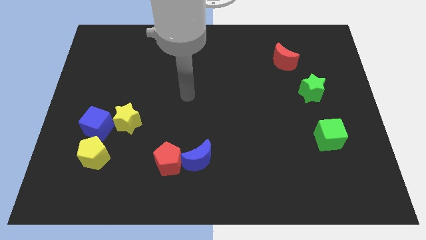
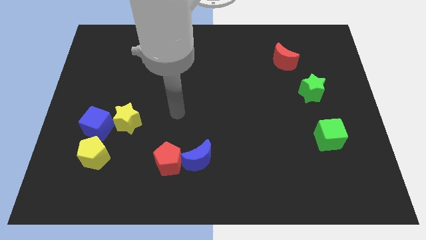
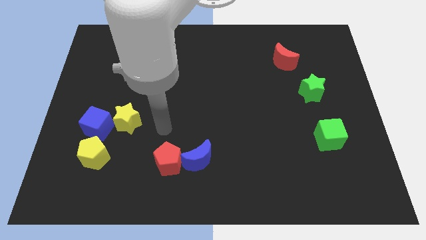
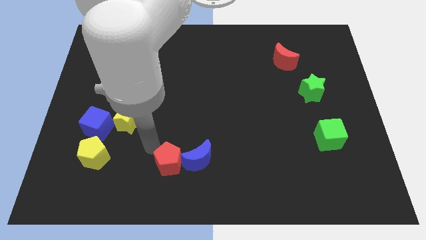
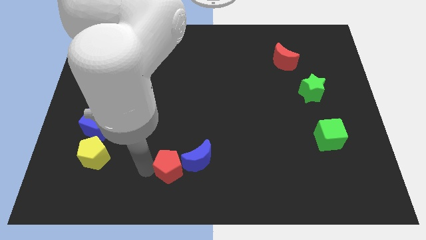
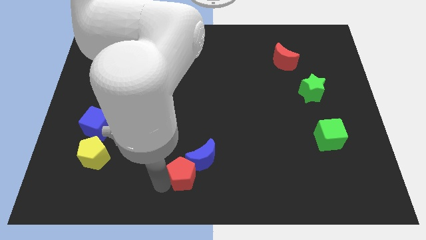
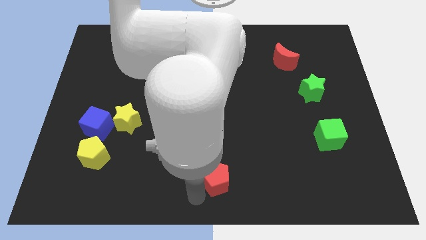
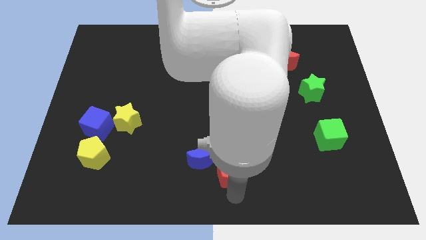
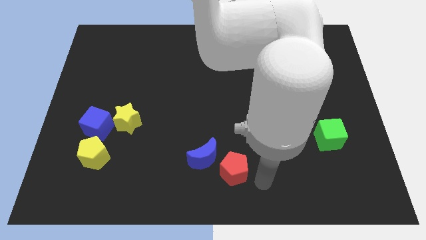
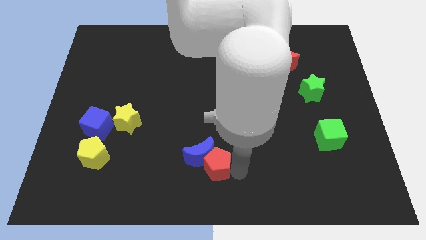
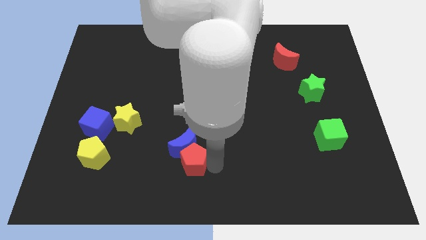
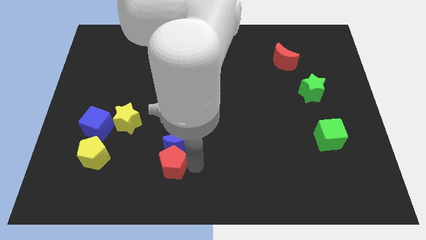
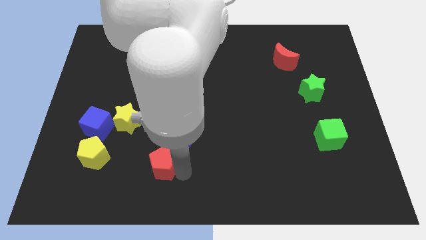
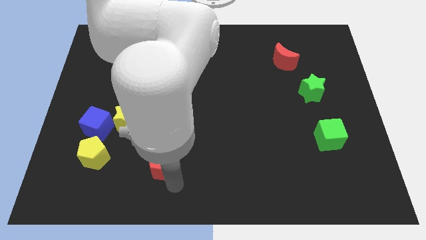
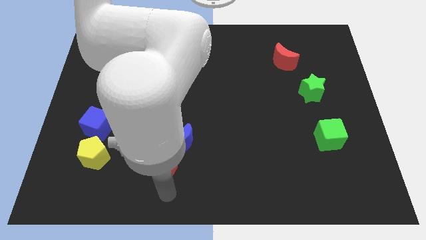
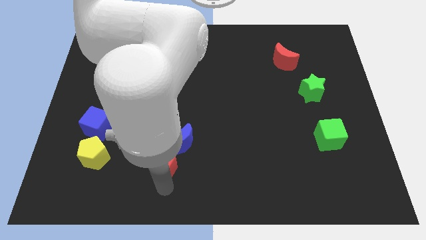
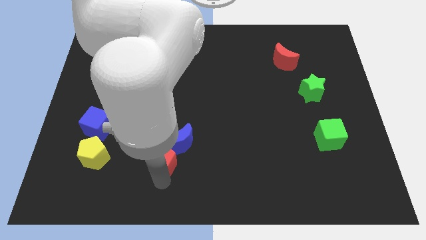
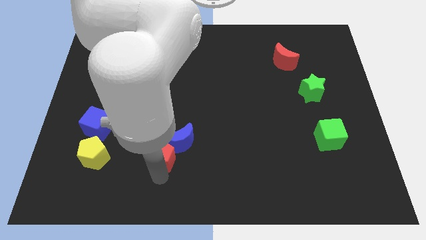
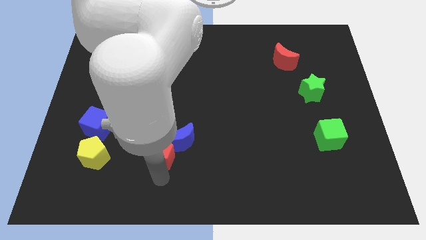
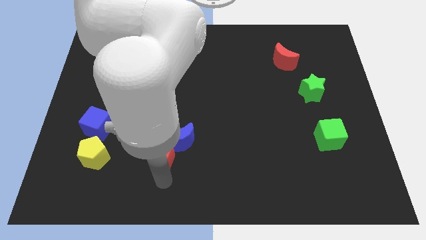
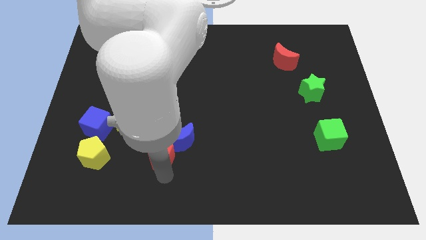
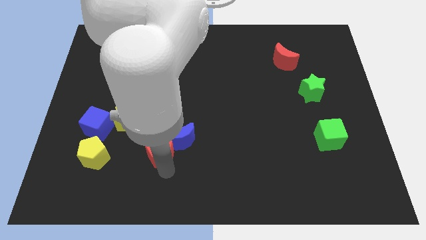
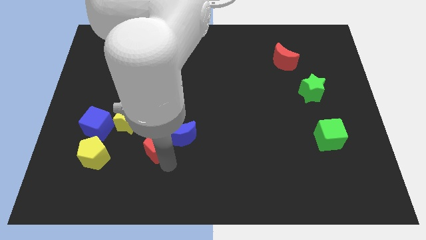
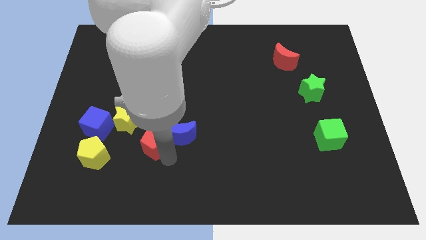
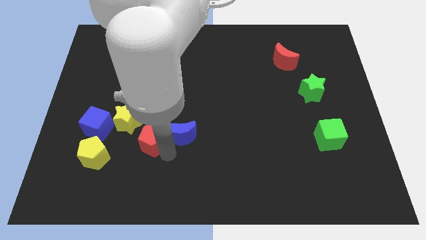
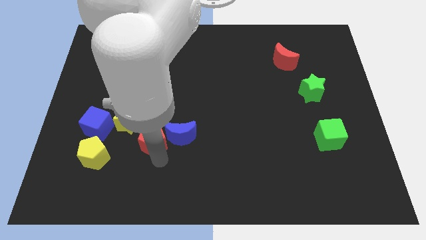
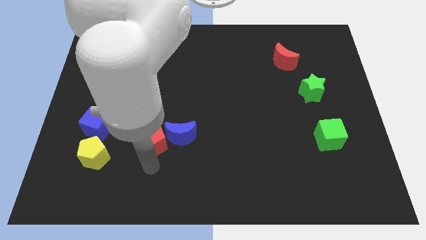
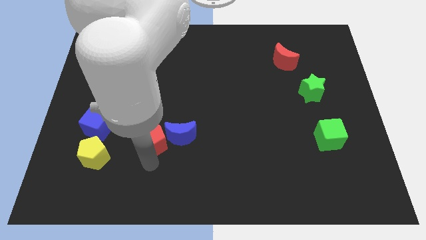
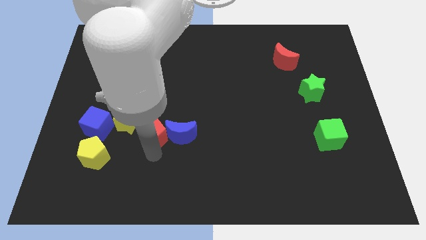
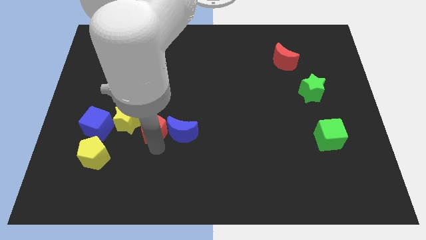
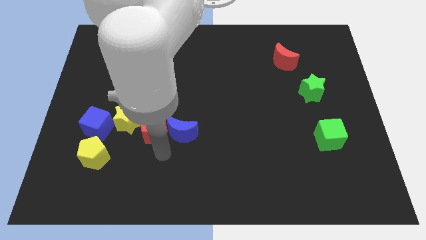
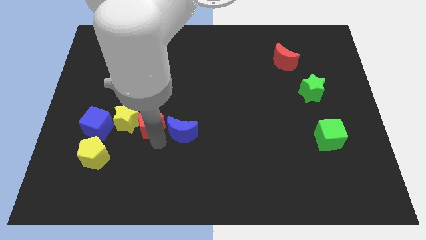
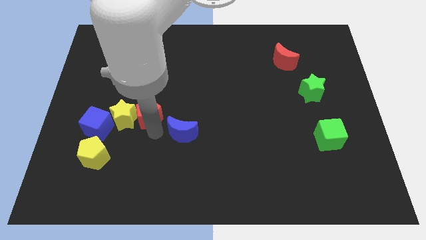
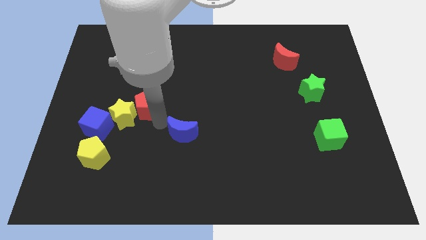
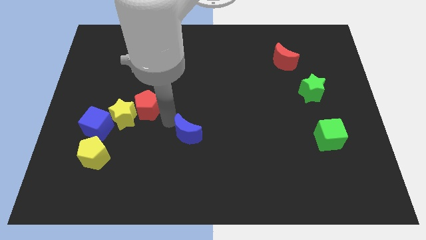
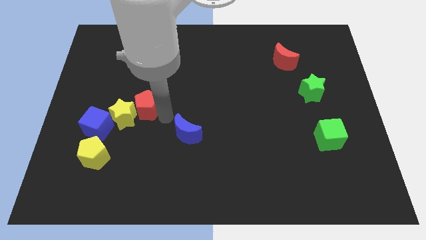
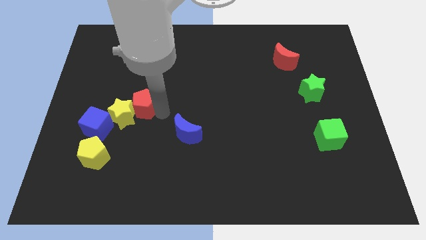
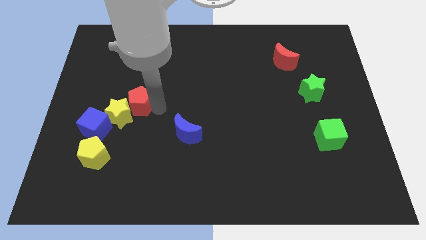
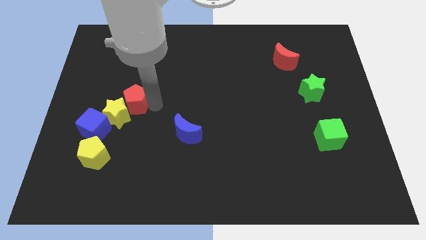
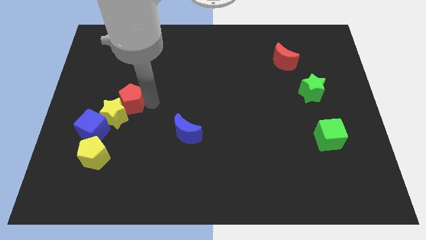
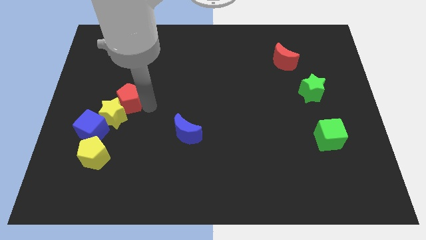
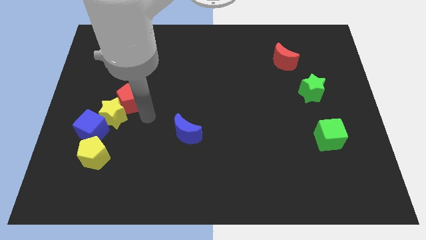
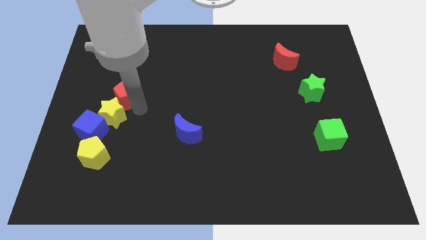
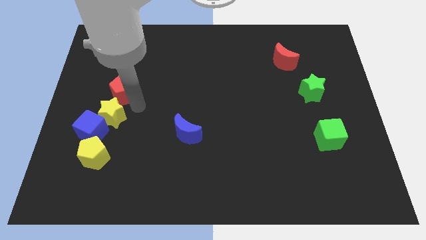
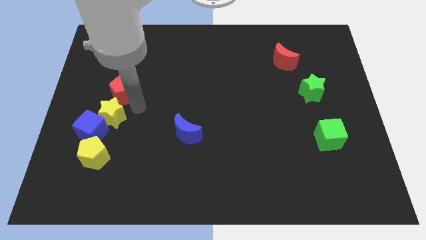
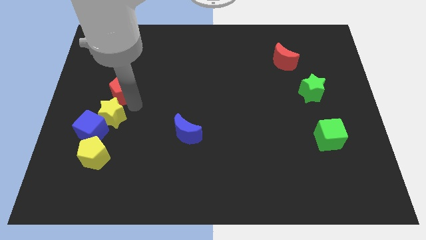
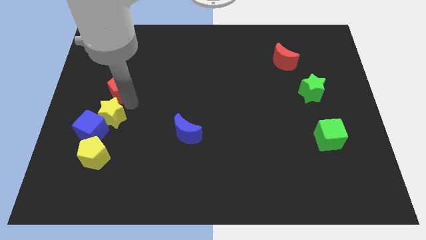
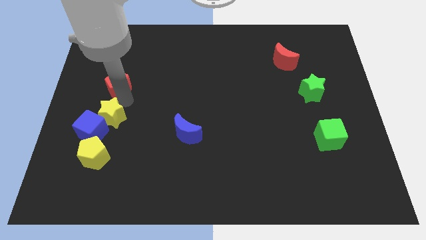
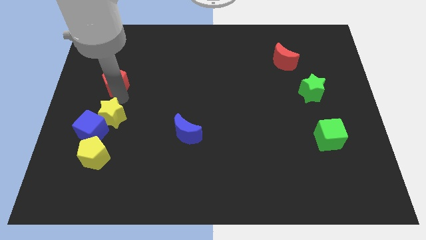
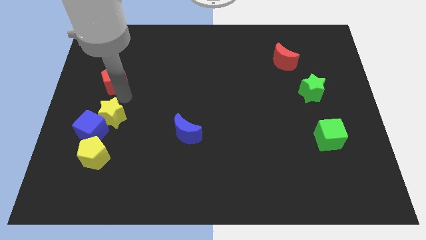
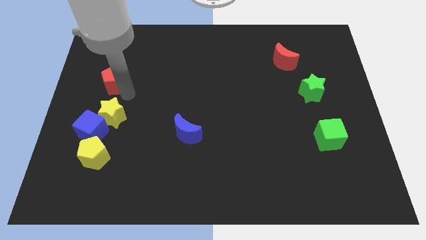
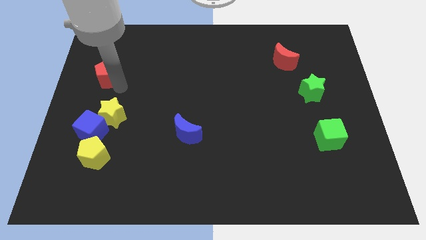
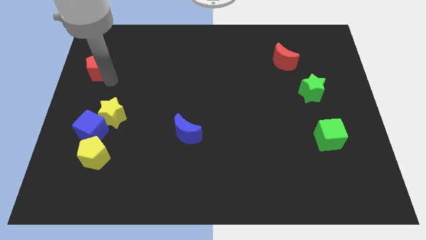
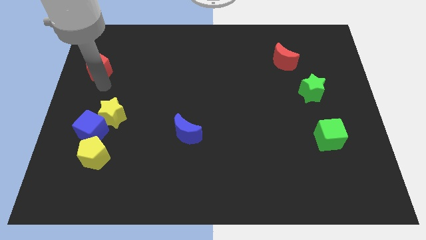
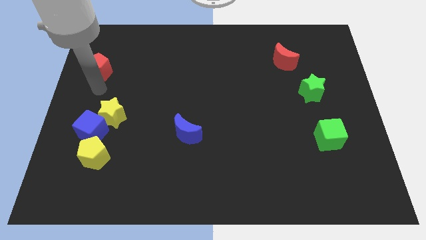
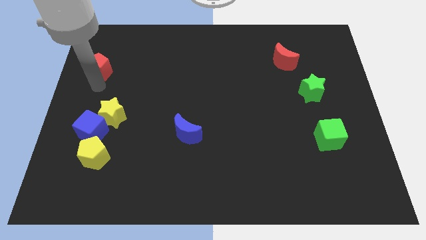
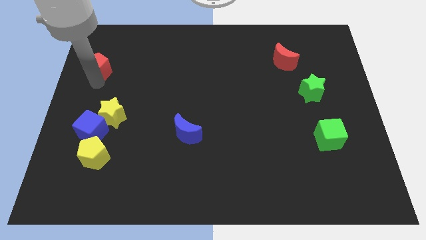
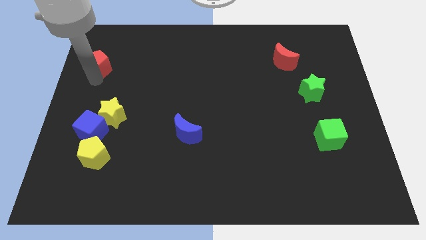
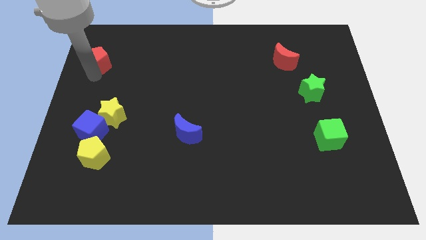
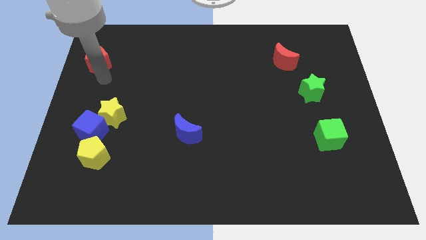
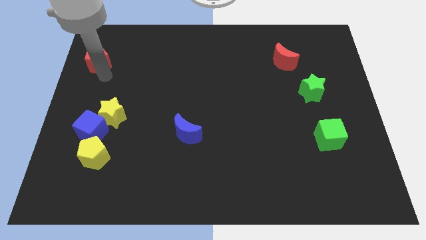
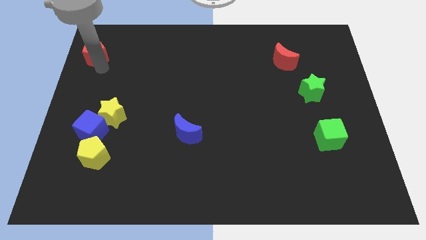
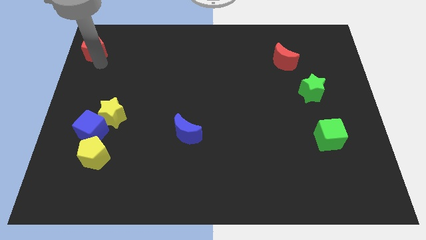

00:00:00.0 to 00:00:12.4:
slide the red pentagon to the upper left corner

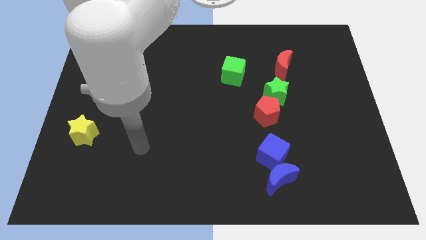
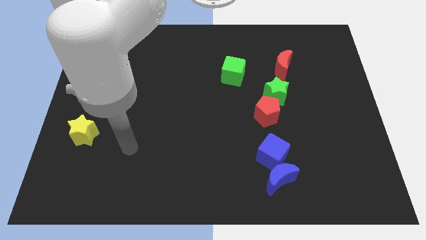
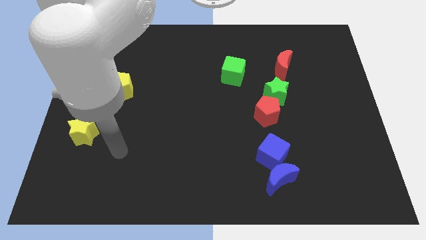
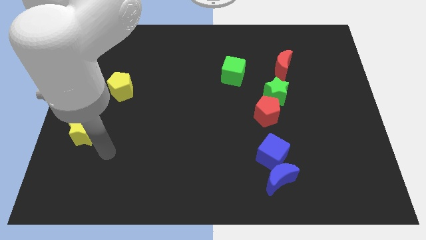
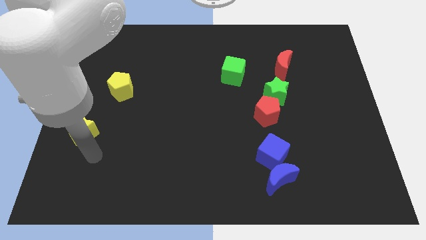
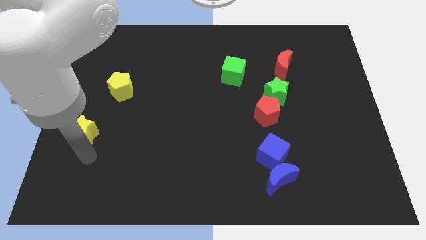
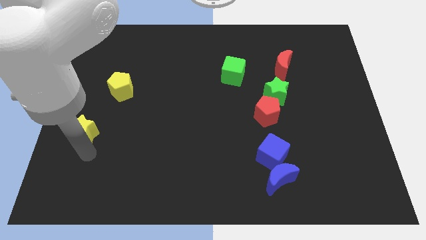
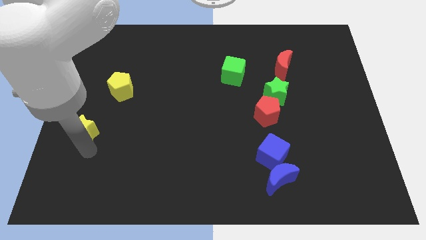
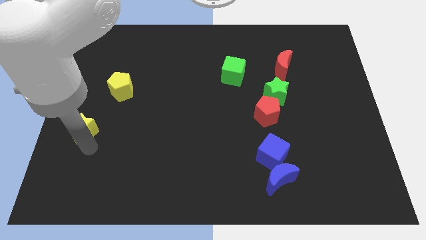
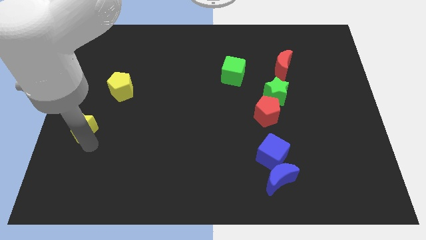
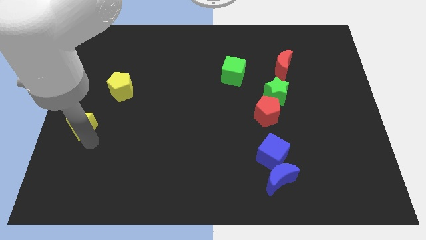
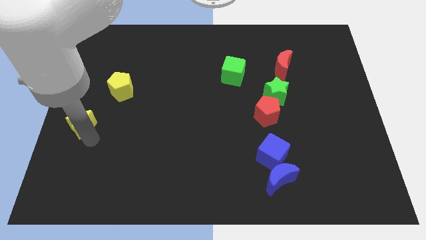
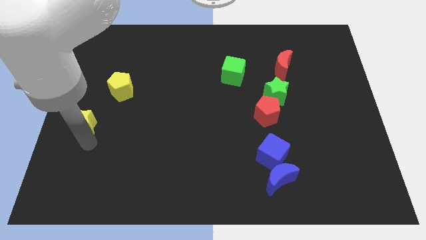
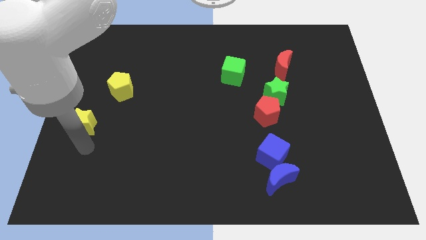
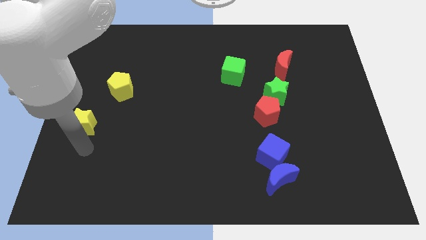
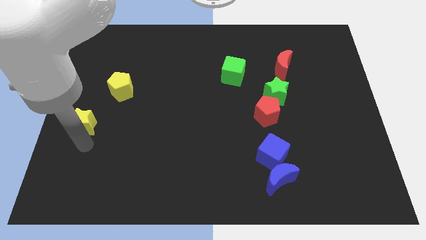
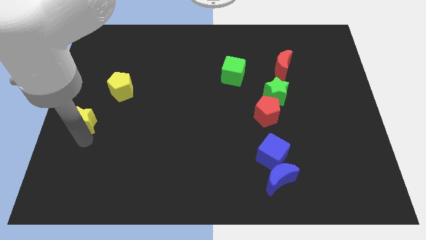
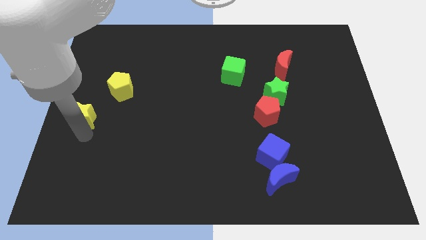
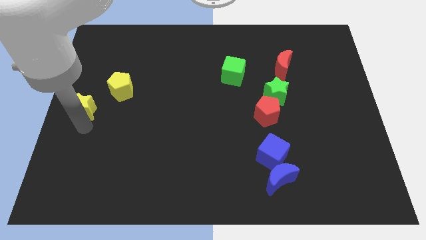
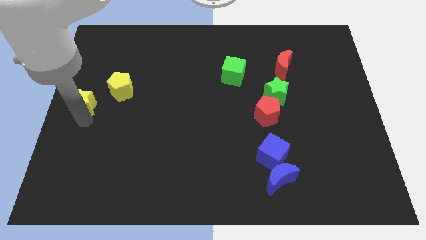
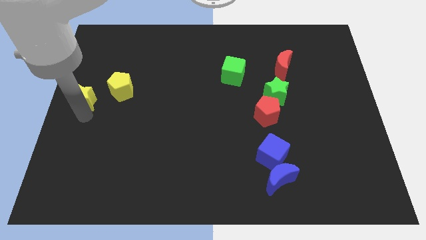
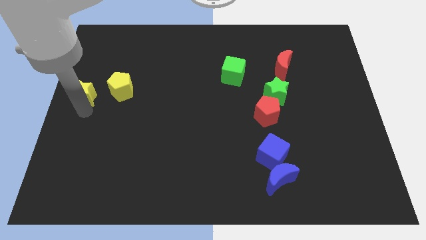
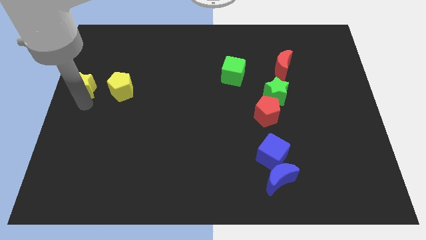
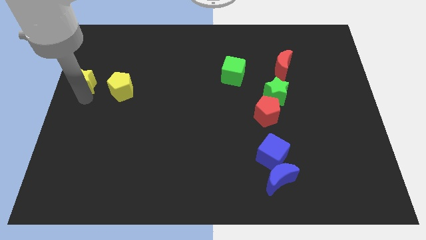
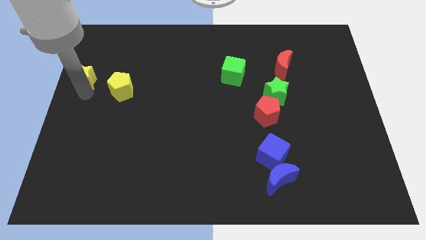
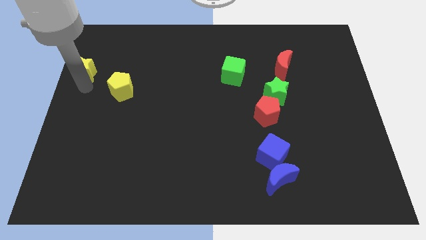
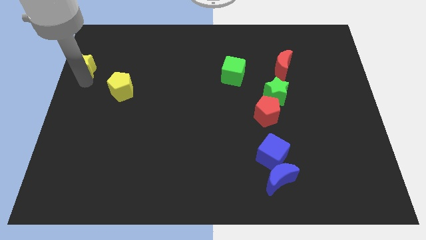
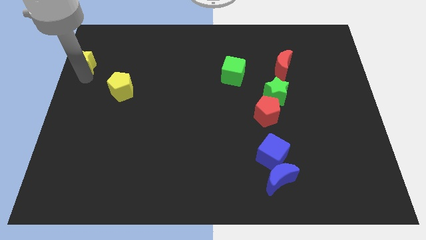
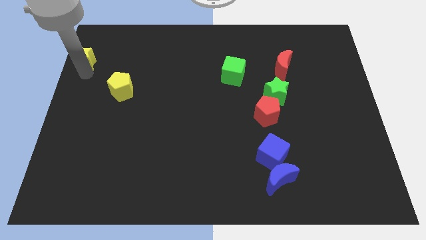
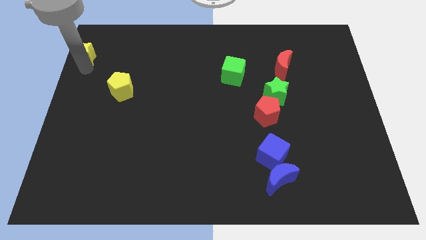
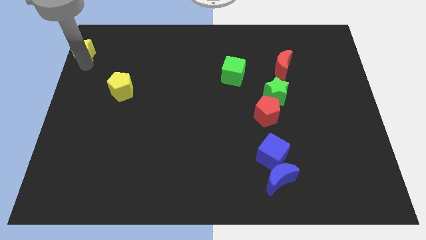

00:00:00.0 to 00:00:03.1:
slide the yellow star to the top left corner
